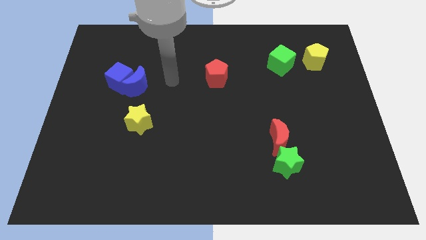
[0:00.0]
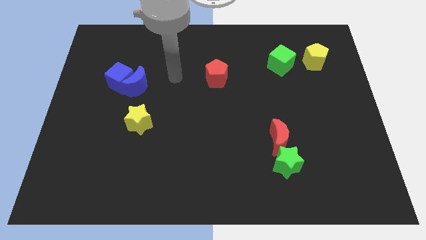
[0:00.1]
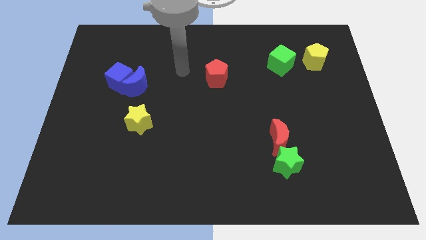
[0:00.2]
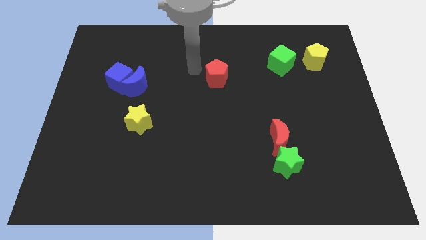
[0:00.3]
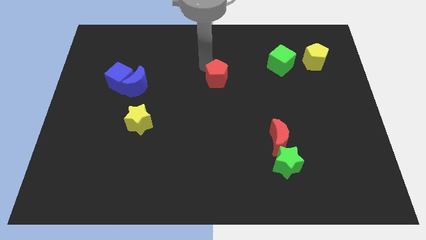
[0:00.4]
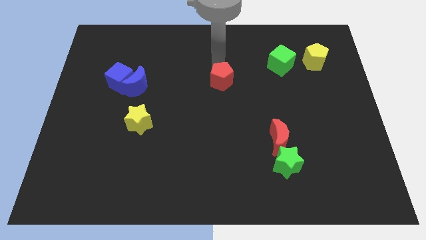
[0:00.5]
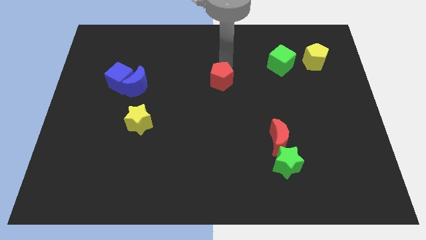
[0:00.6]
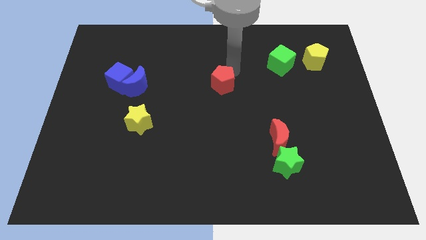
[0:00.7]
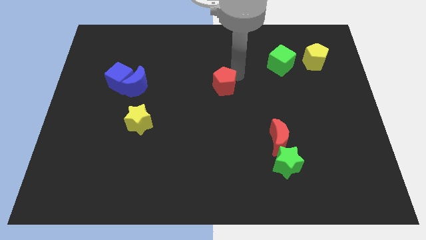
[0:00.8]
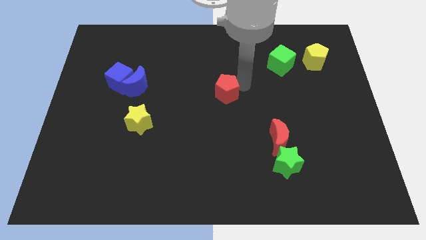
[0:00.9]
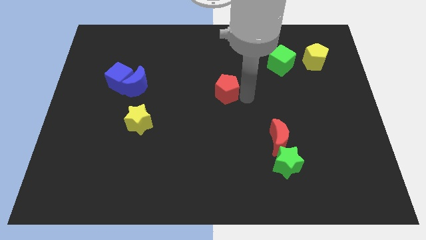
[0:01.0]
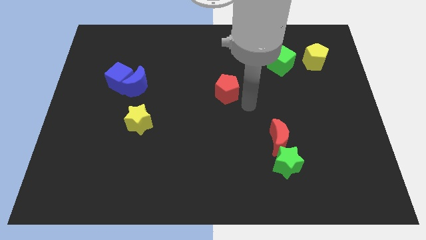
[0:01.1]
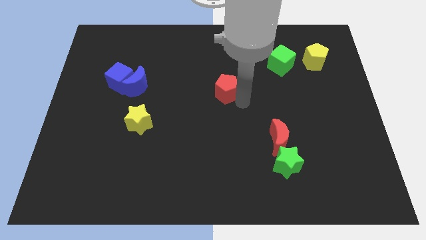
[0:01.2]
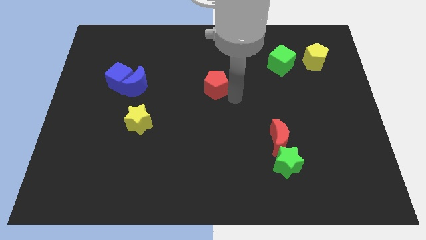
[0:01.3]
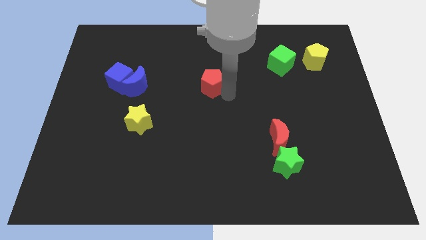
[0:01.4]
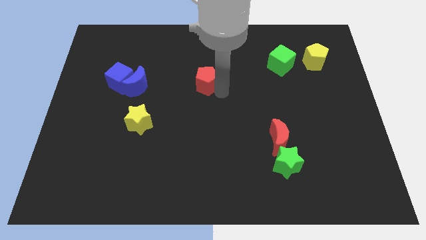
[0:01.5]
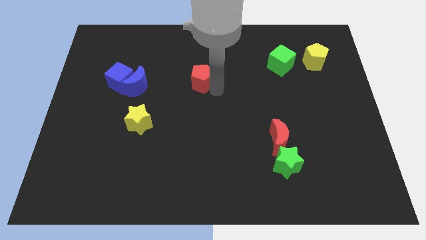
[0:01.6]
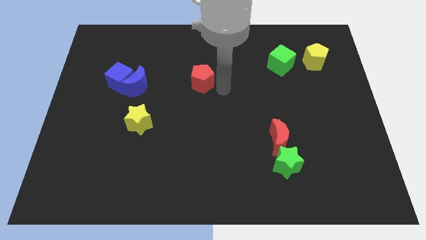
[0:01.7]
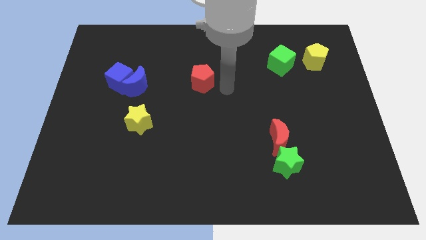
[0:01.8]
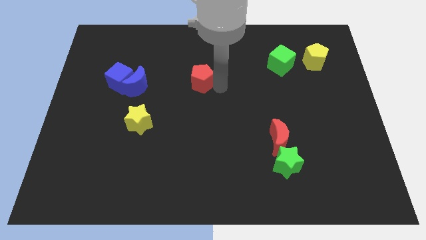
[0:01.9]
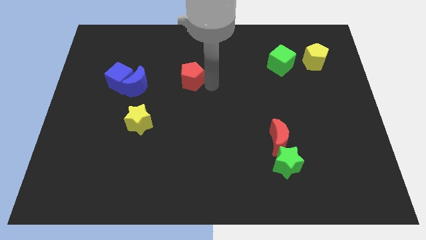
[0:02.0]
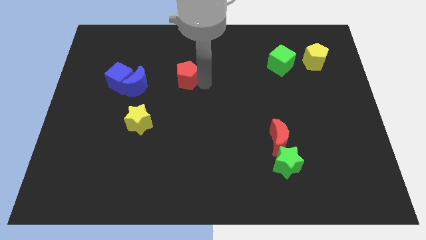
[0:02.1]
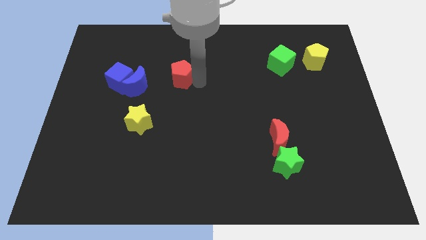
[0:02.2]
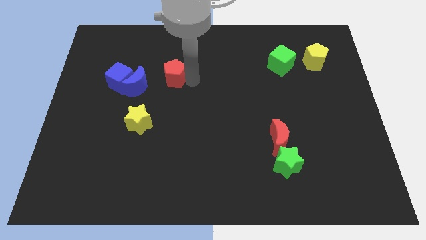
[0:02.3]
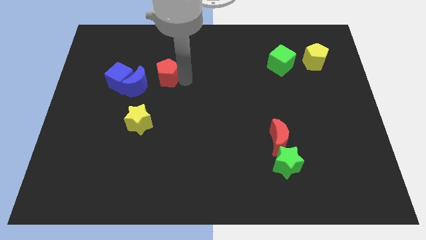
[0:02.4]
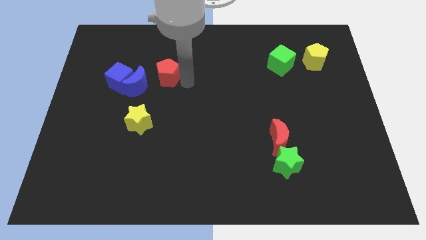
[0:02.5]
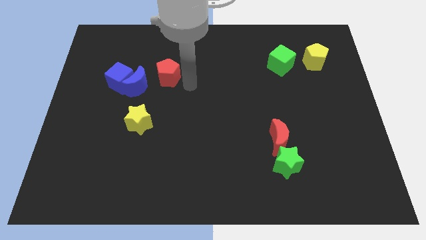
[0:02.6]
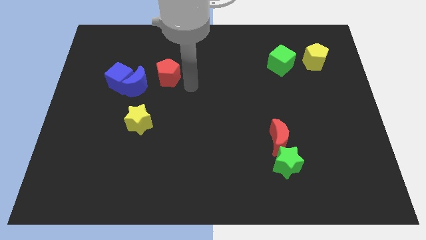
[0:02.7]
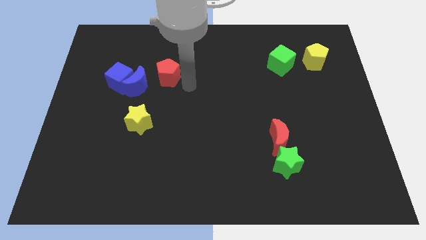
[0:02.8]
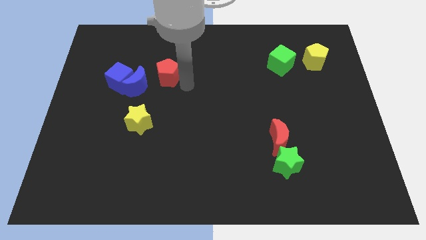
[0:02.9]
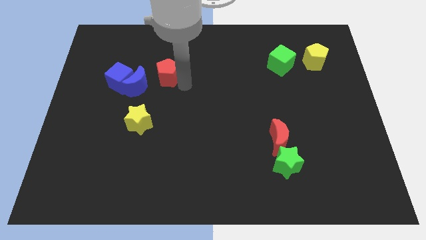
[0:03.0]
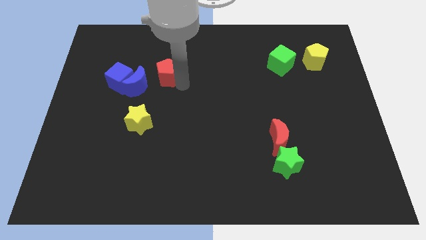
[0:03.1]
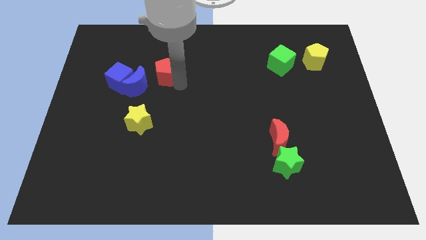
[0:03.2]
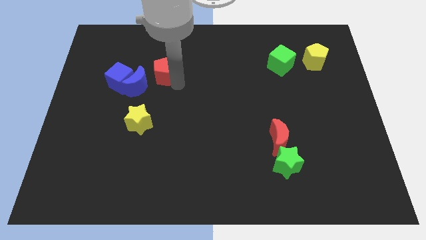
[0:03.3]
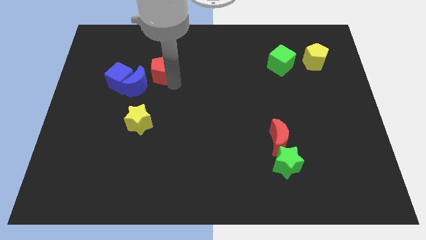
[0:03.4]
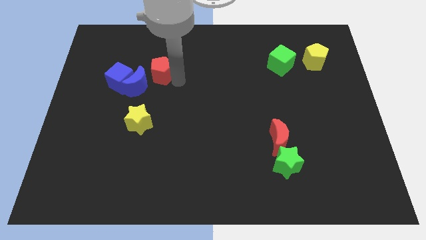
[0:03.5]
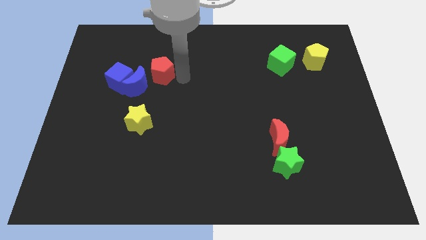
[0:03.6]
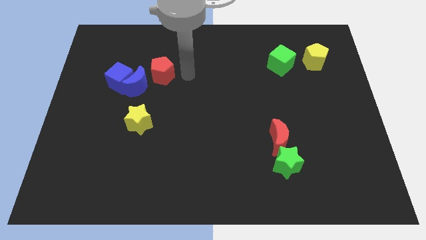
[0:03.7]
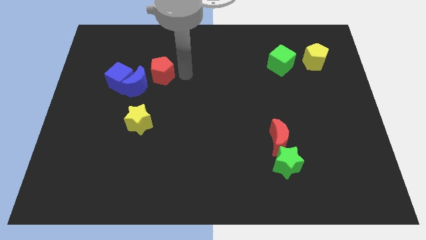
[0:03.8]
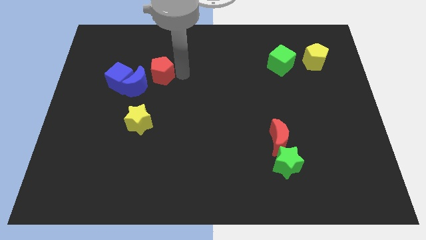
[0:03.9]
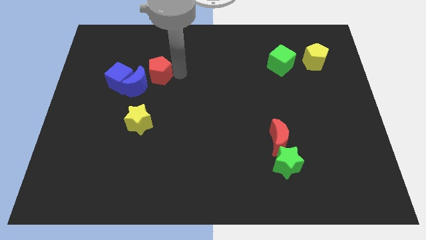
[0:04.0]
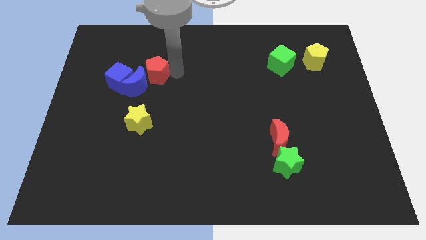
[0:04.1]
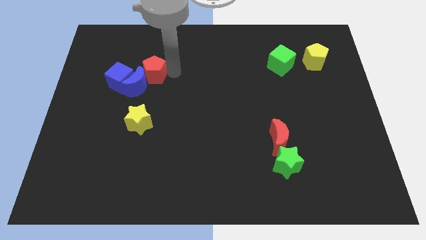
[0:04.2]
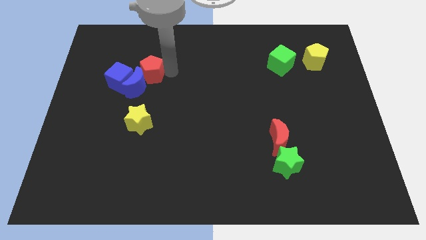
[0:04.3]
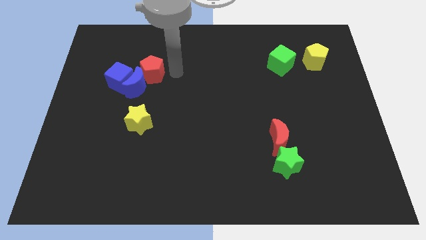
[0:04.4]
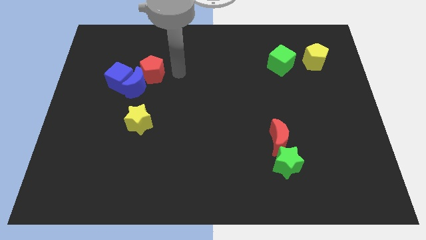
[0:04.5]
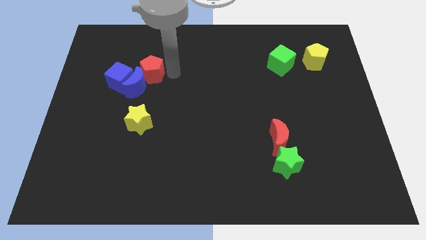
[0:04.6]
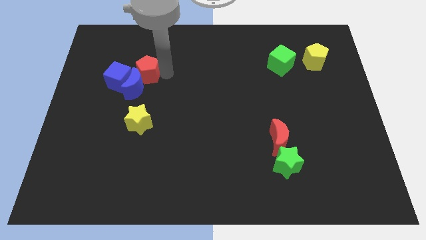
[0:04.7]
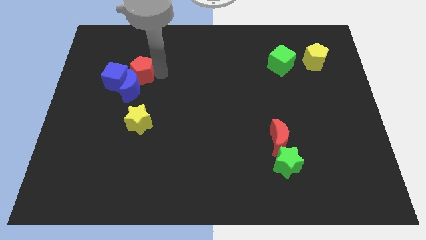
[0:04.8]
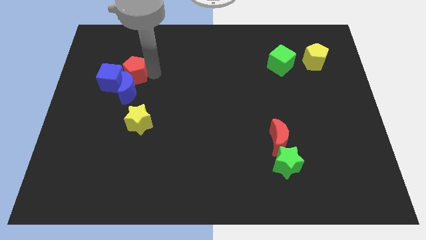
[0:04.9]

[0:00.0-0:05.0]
move the red pentagon to the blue cube

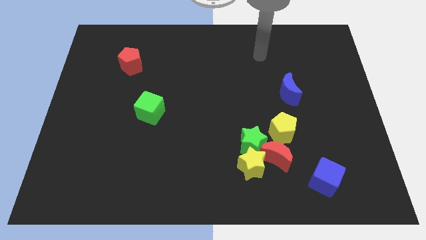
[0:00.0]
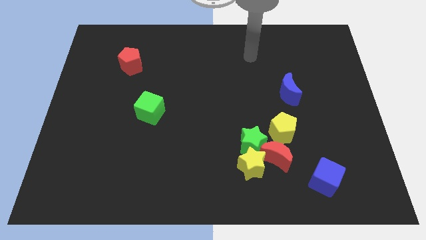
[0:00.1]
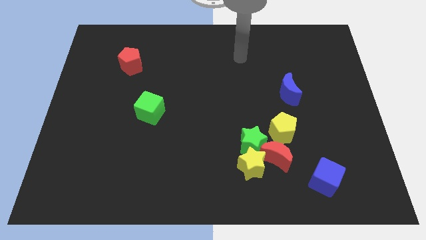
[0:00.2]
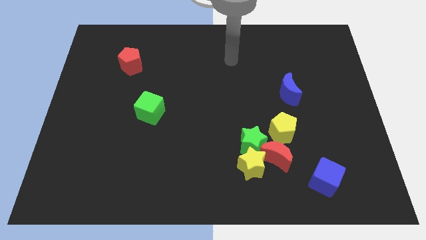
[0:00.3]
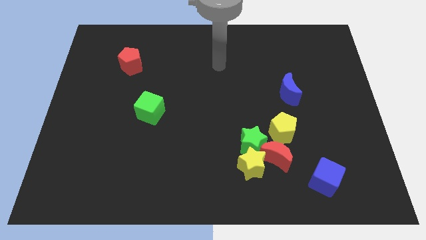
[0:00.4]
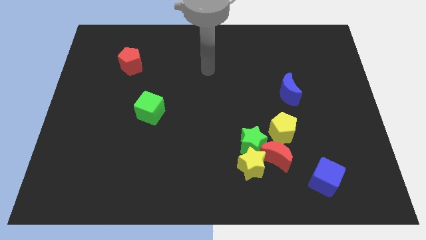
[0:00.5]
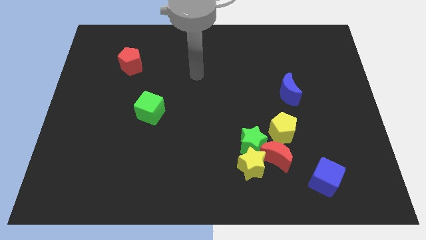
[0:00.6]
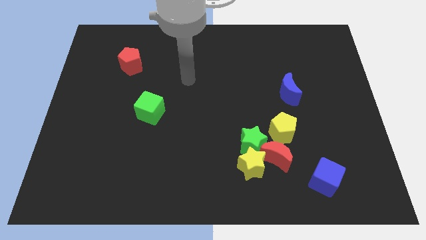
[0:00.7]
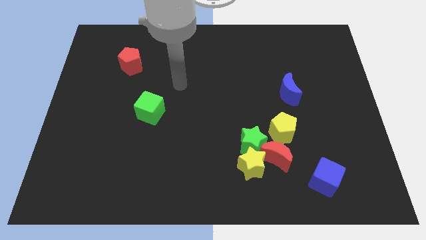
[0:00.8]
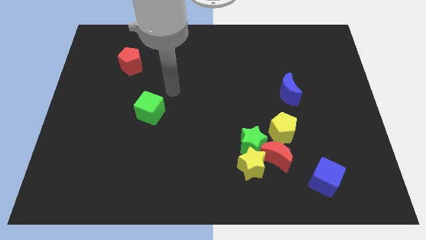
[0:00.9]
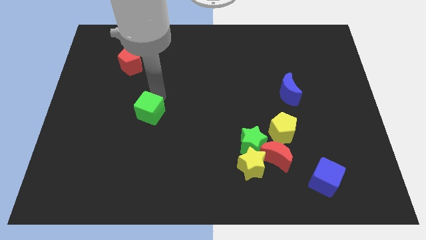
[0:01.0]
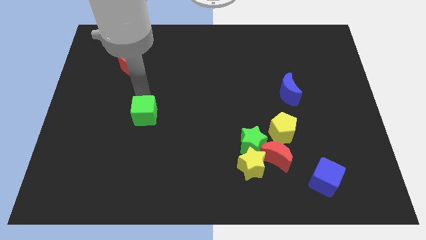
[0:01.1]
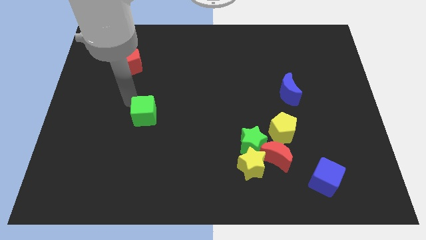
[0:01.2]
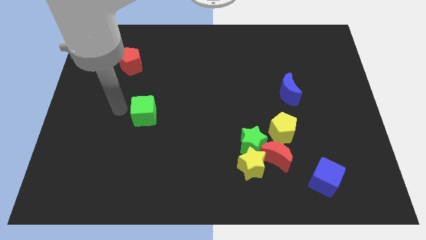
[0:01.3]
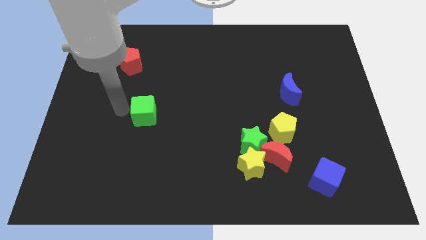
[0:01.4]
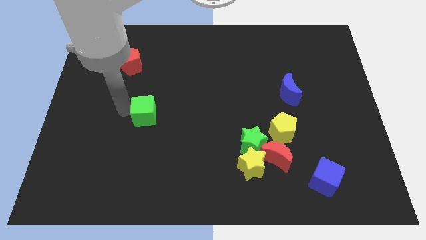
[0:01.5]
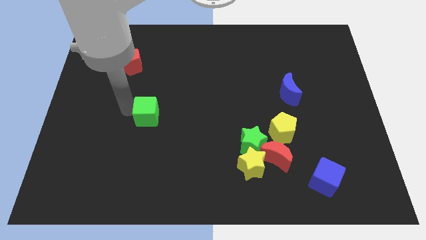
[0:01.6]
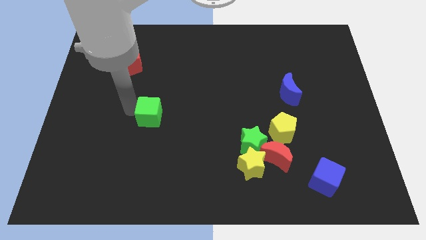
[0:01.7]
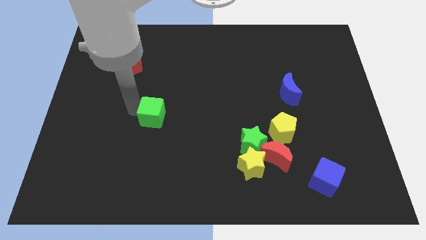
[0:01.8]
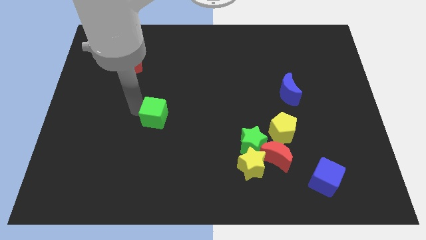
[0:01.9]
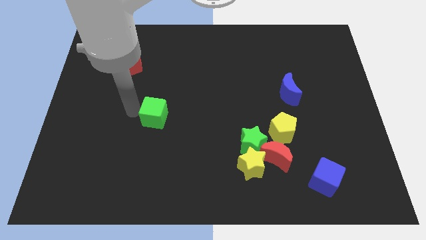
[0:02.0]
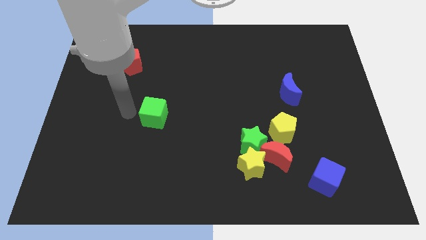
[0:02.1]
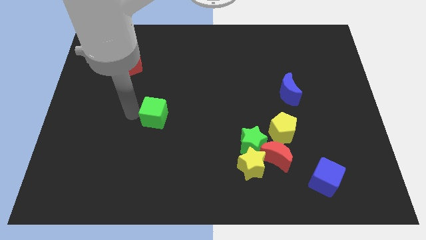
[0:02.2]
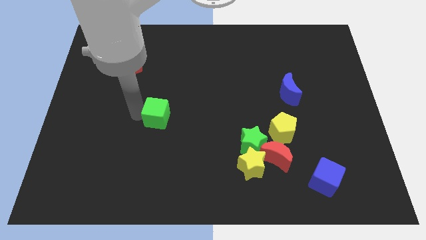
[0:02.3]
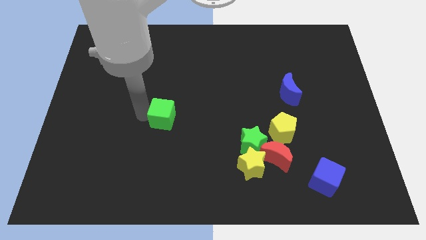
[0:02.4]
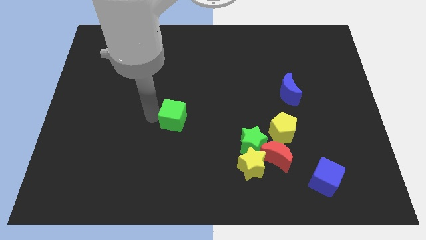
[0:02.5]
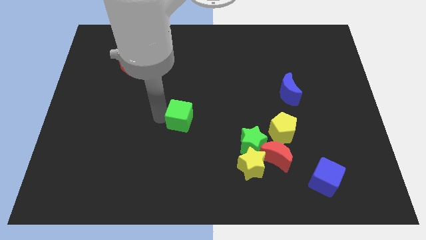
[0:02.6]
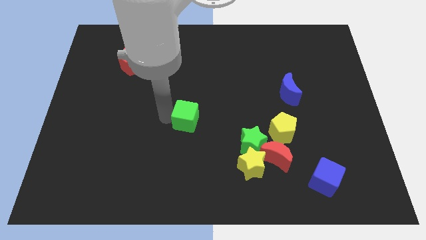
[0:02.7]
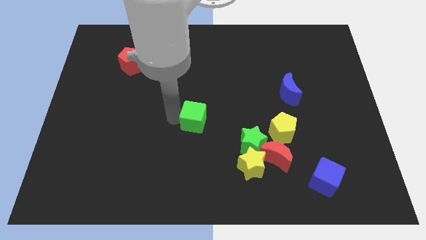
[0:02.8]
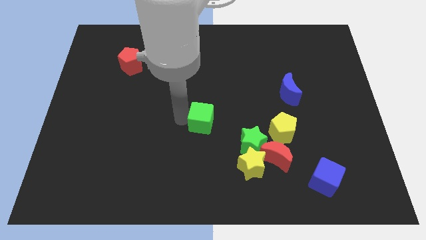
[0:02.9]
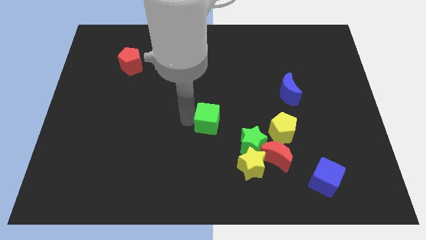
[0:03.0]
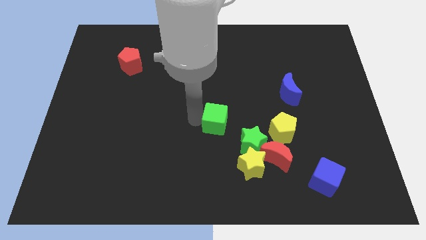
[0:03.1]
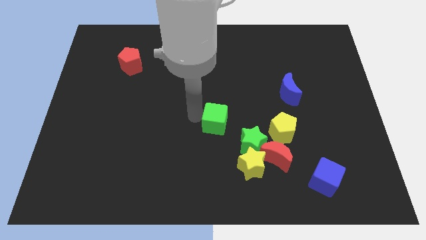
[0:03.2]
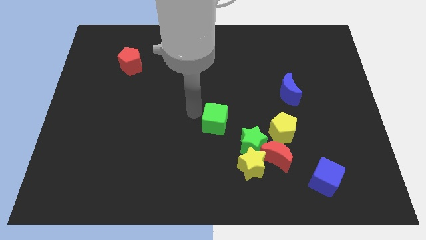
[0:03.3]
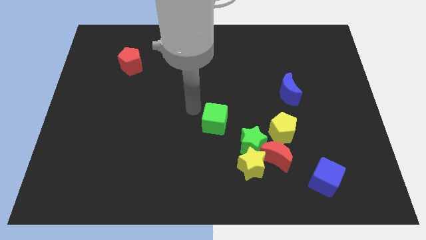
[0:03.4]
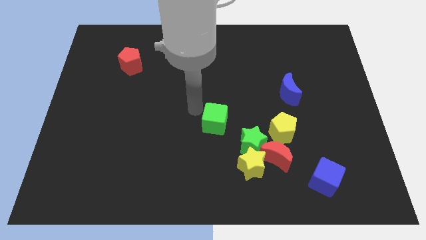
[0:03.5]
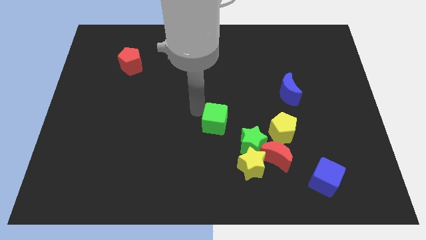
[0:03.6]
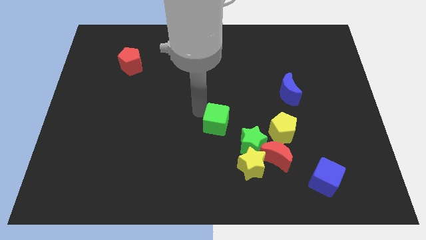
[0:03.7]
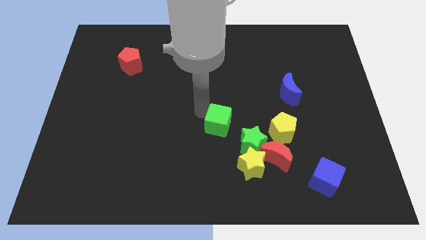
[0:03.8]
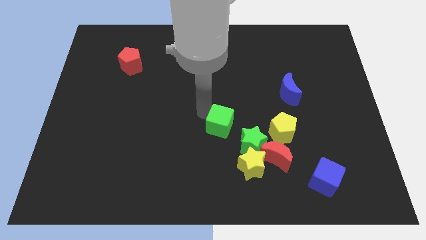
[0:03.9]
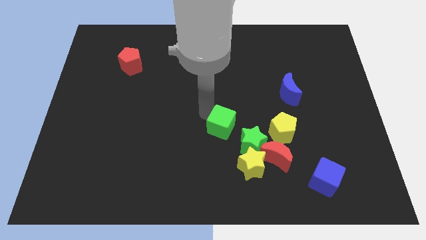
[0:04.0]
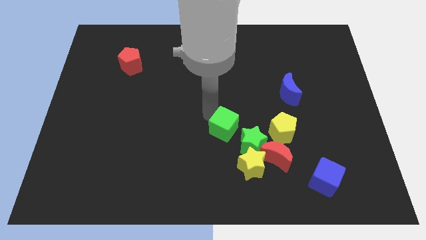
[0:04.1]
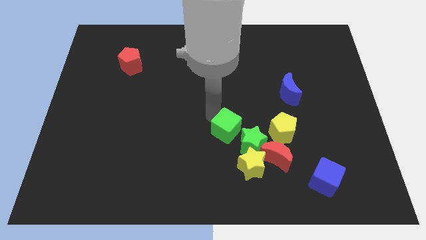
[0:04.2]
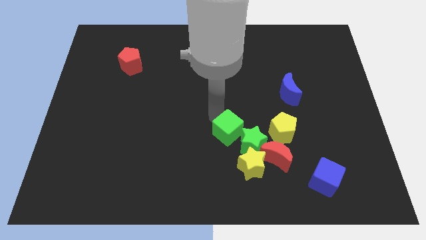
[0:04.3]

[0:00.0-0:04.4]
move the green cube to the green star
